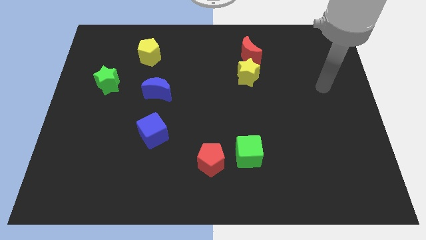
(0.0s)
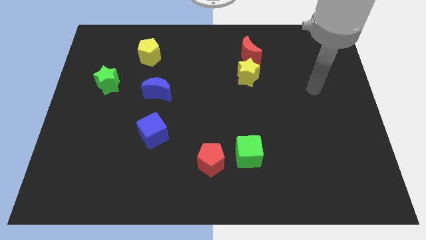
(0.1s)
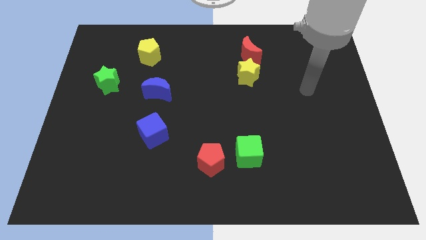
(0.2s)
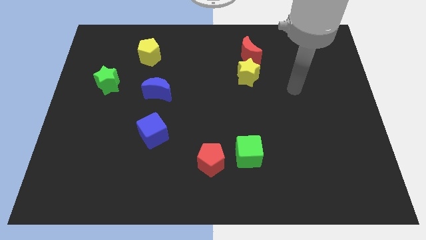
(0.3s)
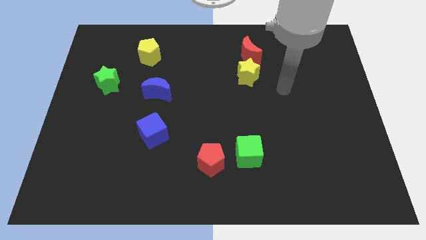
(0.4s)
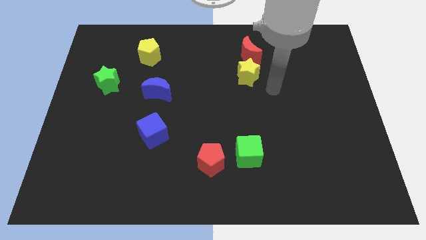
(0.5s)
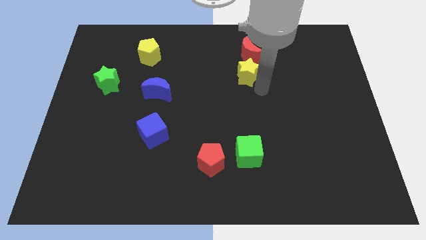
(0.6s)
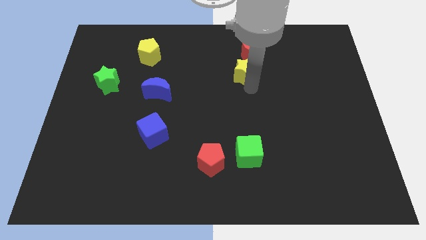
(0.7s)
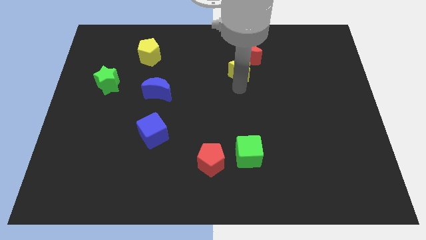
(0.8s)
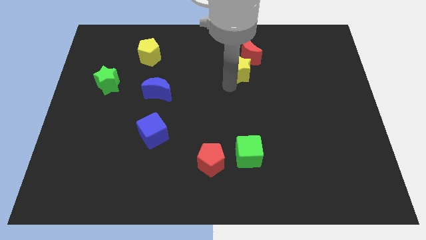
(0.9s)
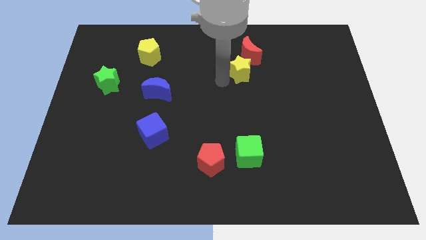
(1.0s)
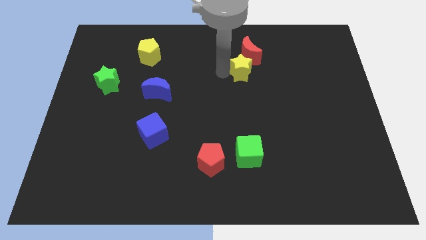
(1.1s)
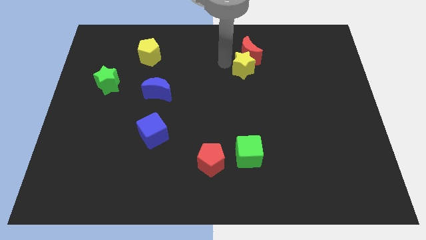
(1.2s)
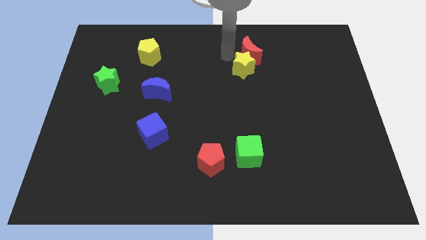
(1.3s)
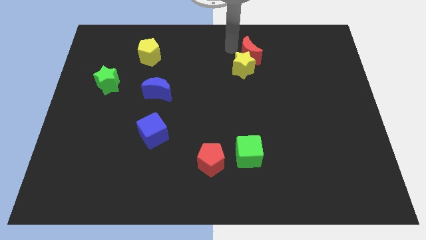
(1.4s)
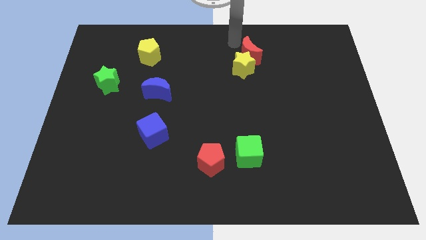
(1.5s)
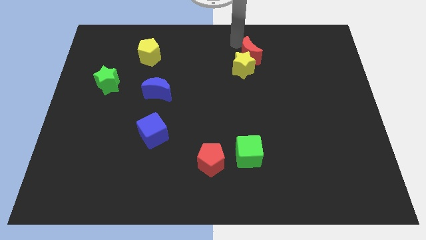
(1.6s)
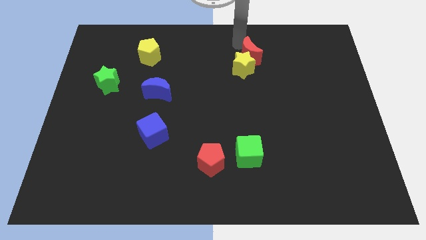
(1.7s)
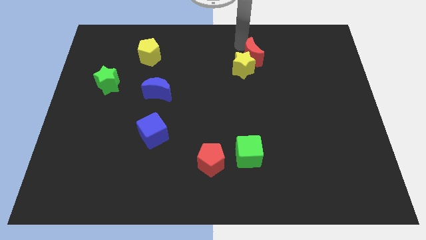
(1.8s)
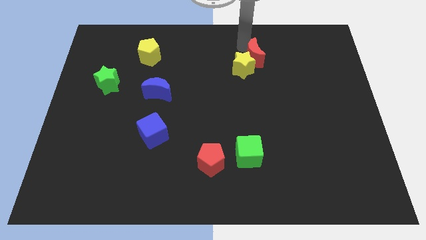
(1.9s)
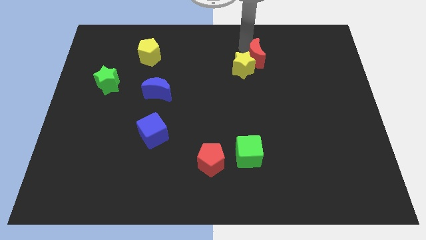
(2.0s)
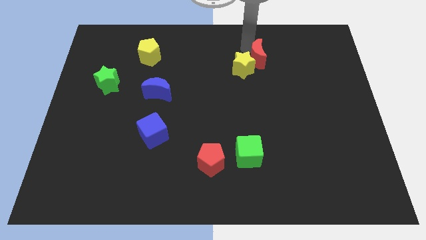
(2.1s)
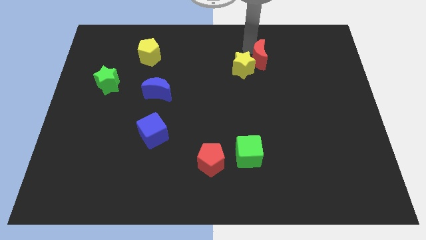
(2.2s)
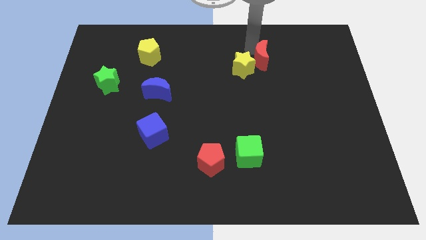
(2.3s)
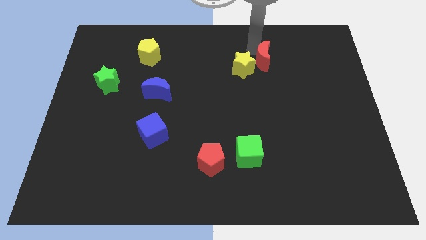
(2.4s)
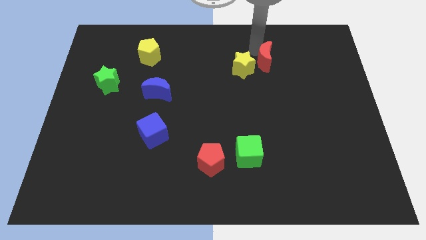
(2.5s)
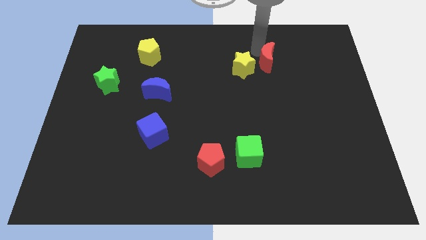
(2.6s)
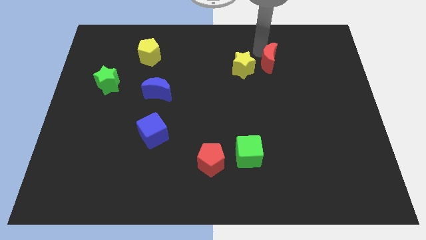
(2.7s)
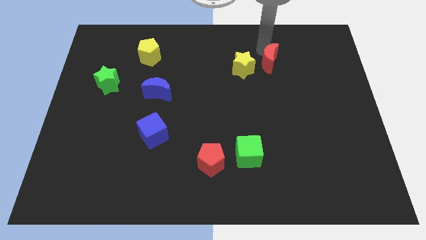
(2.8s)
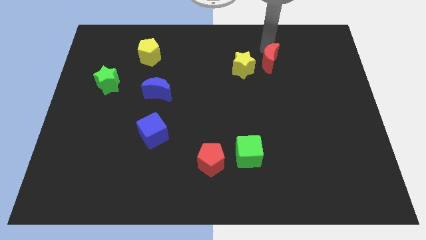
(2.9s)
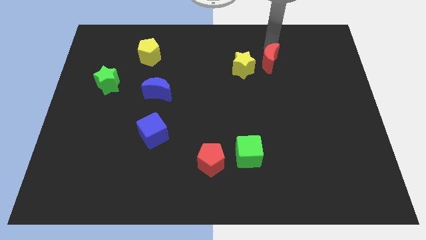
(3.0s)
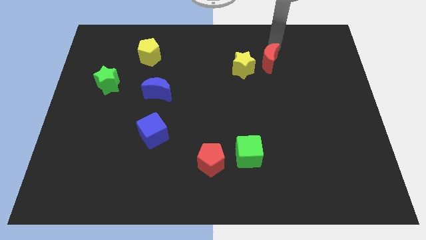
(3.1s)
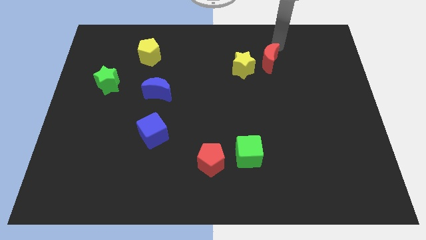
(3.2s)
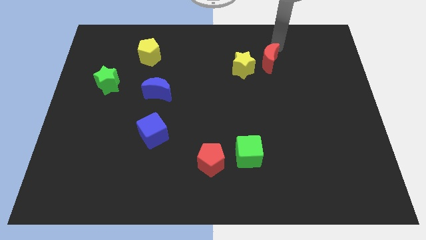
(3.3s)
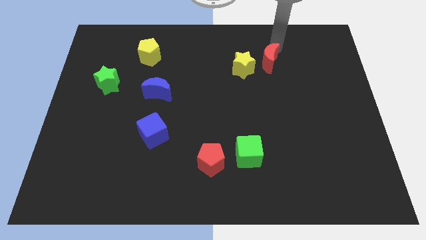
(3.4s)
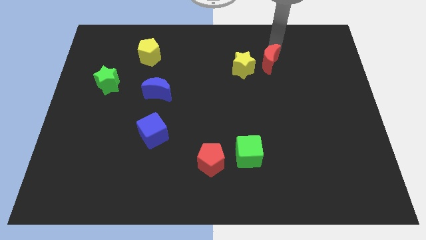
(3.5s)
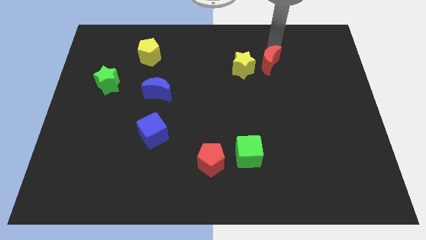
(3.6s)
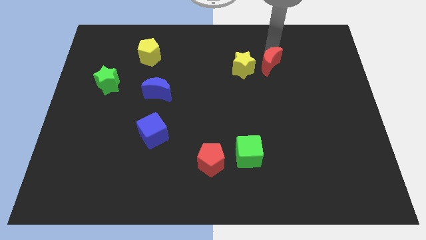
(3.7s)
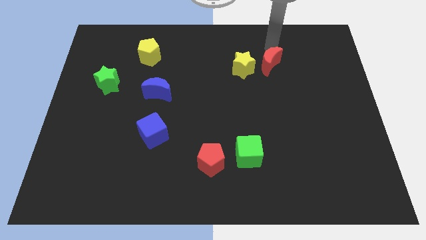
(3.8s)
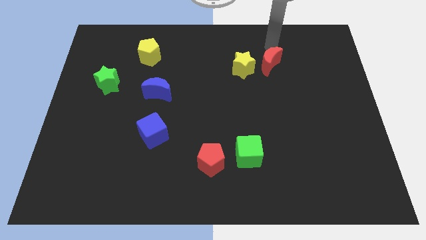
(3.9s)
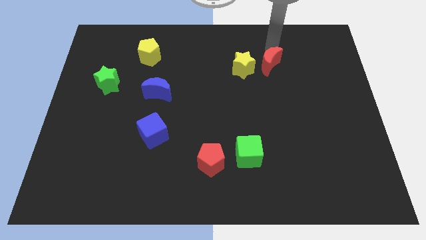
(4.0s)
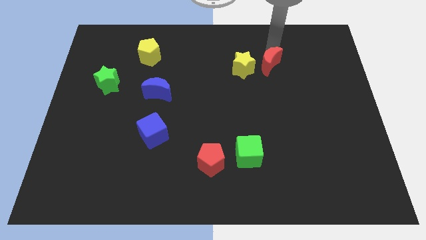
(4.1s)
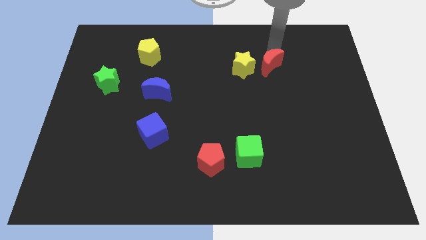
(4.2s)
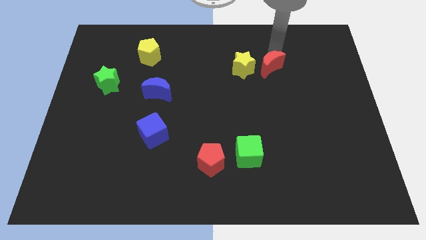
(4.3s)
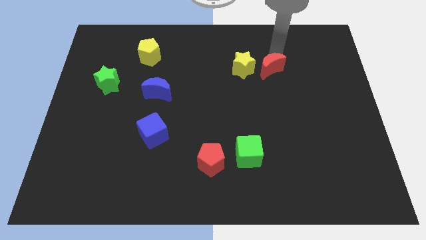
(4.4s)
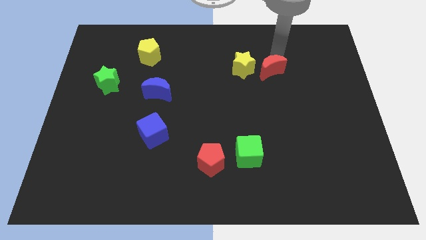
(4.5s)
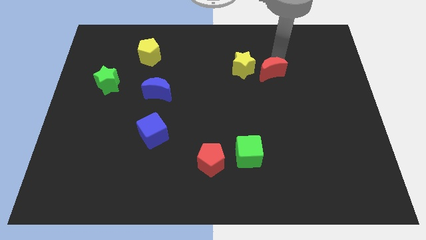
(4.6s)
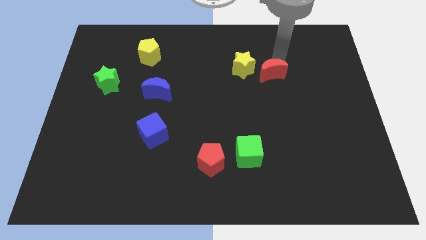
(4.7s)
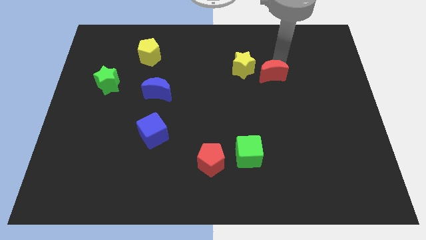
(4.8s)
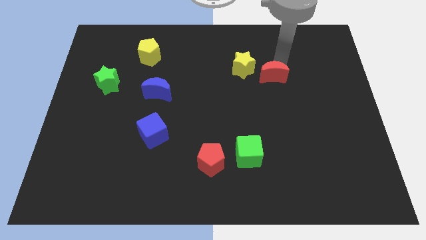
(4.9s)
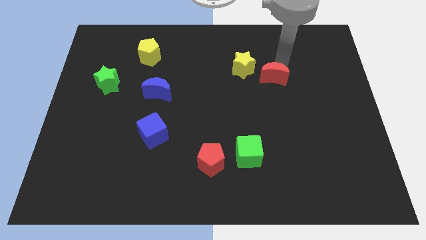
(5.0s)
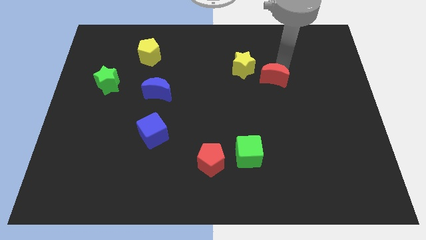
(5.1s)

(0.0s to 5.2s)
slide the red moon slightly downwards

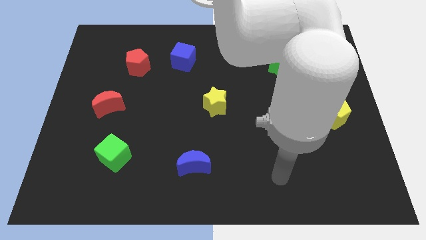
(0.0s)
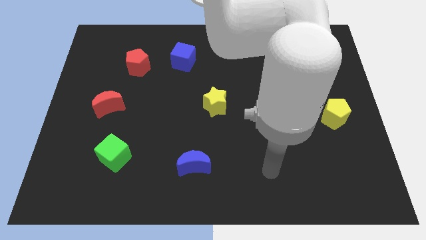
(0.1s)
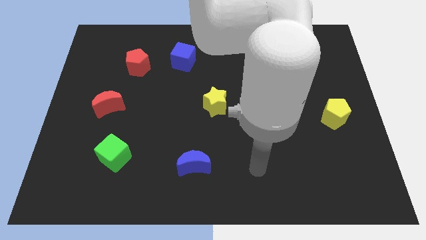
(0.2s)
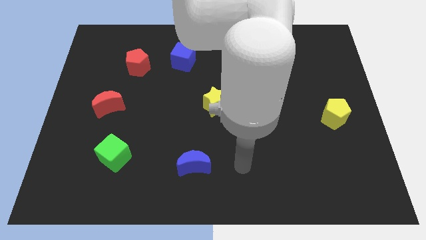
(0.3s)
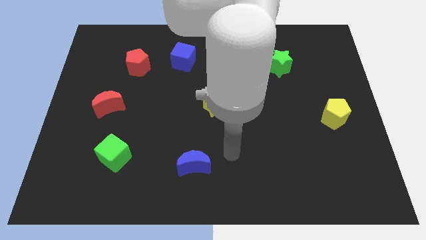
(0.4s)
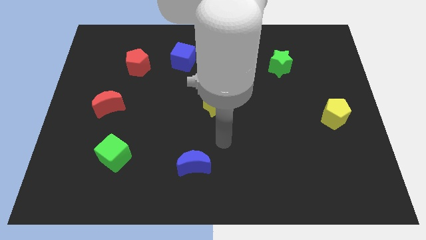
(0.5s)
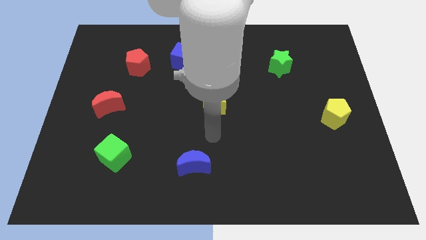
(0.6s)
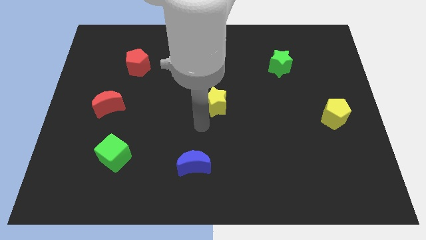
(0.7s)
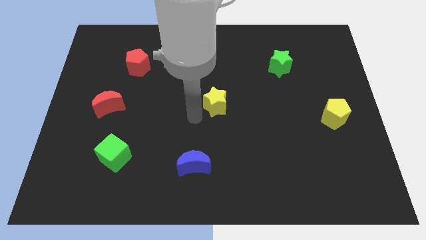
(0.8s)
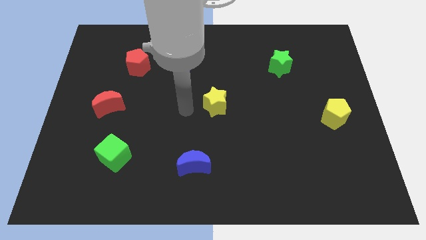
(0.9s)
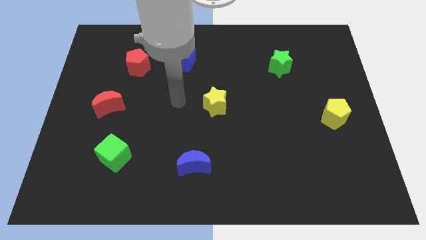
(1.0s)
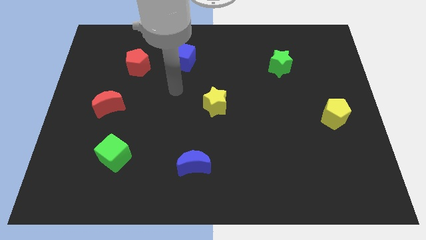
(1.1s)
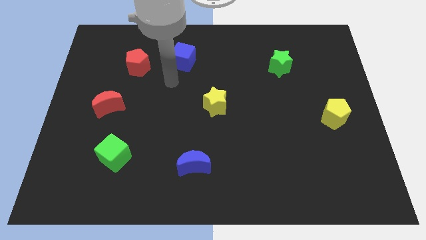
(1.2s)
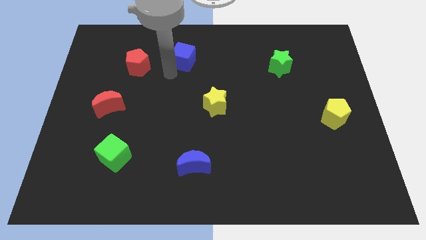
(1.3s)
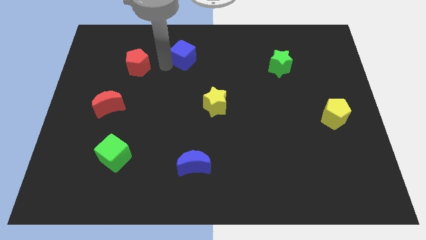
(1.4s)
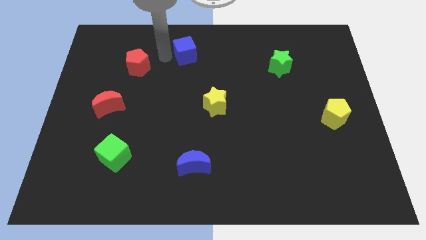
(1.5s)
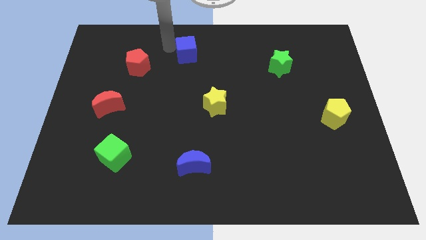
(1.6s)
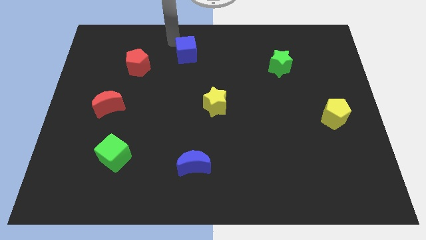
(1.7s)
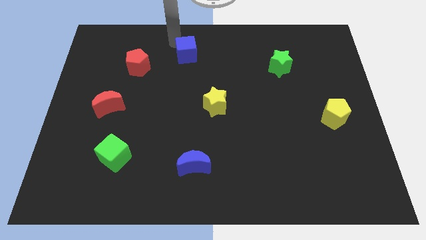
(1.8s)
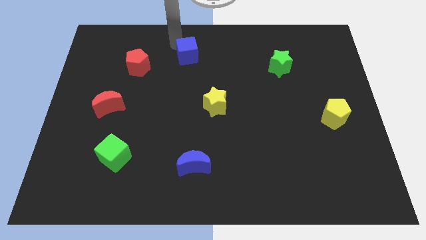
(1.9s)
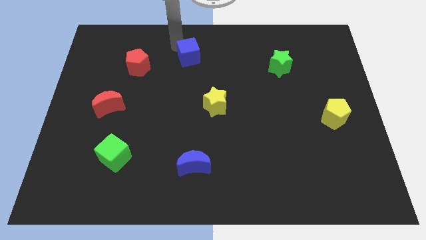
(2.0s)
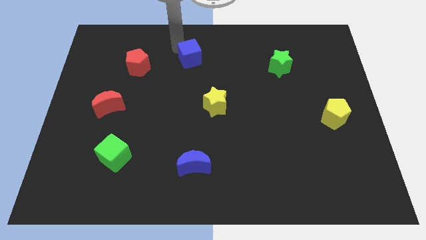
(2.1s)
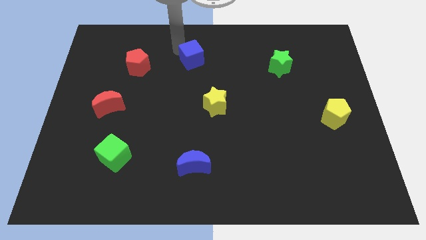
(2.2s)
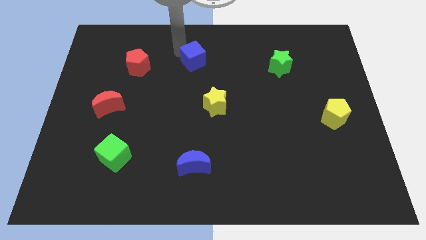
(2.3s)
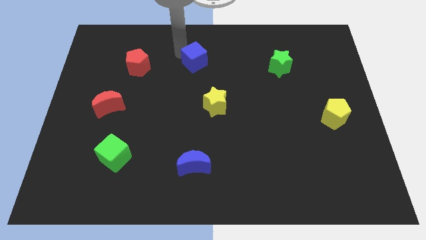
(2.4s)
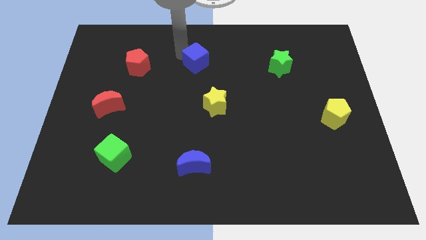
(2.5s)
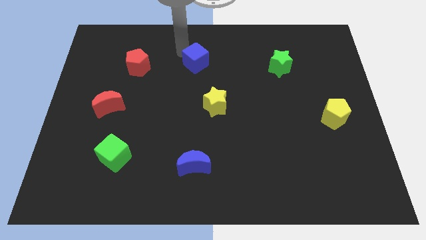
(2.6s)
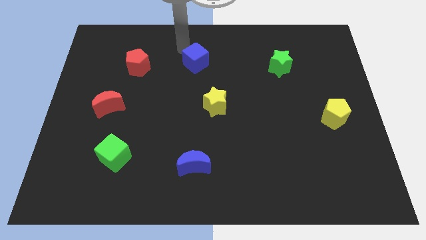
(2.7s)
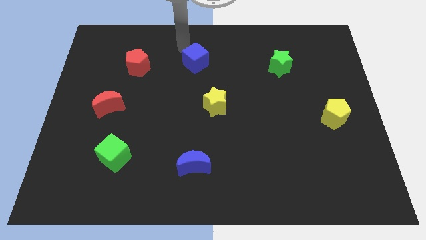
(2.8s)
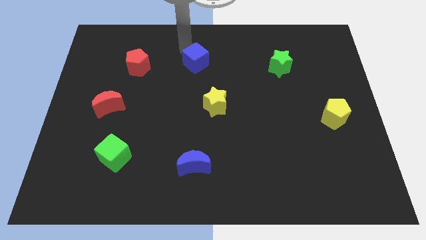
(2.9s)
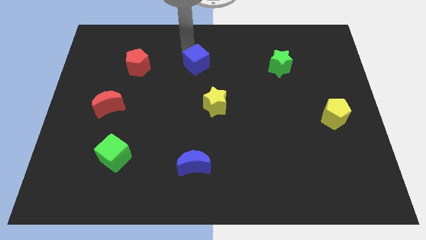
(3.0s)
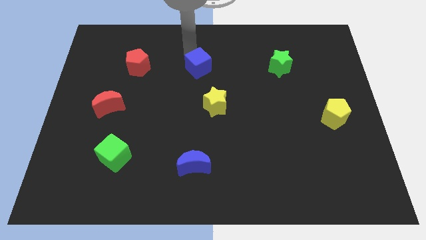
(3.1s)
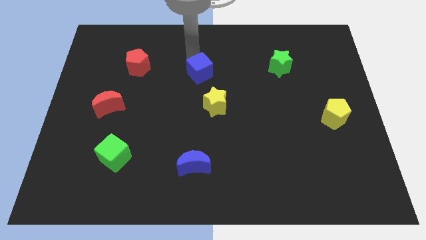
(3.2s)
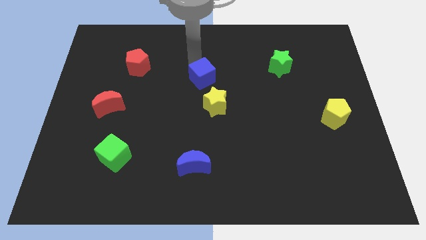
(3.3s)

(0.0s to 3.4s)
slightly push the blue cube down and to the right diagonally
